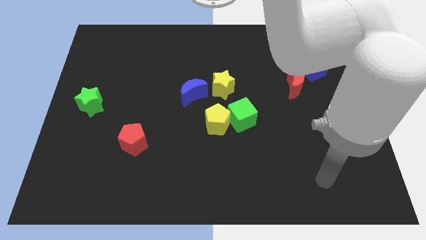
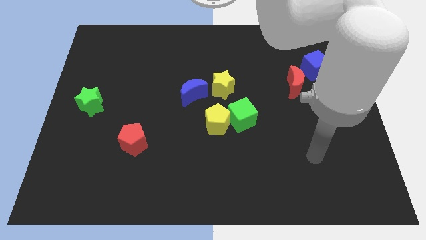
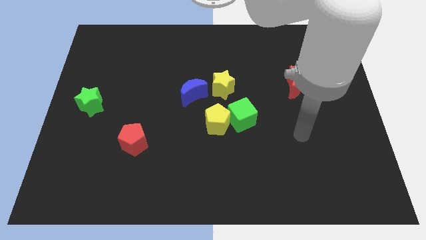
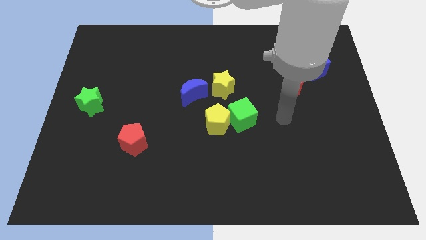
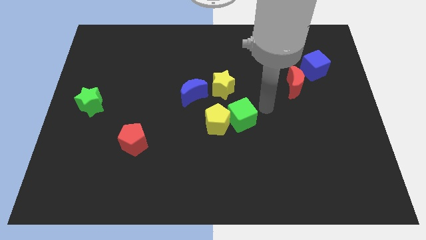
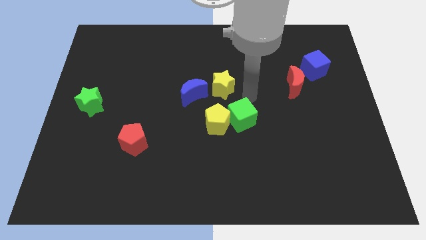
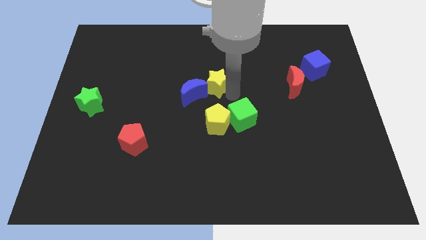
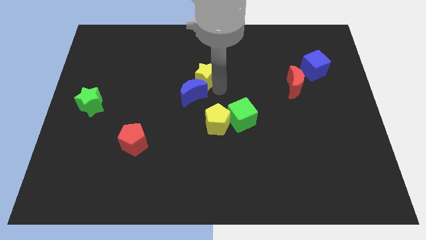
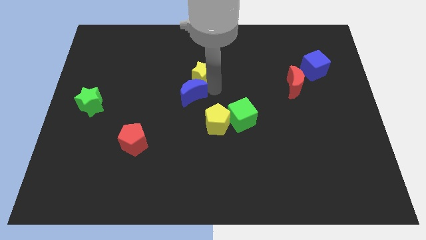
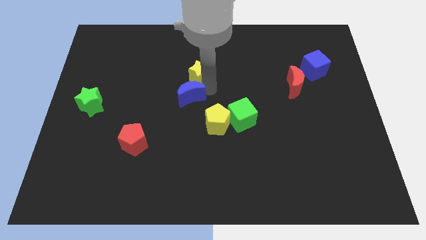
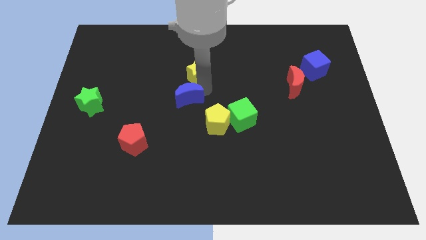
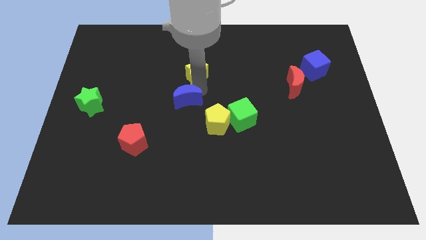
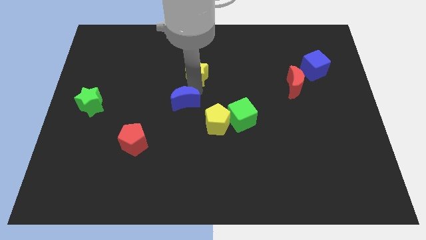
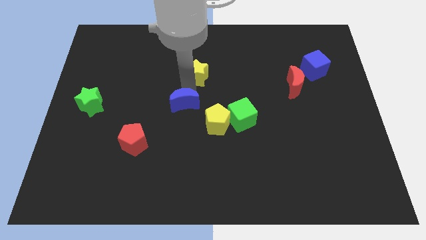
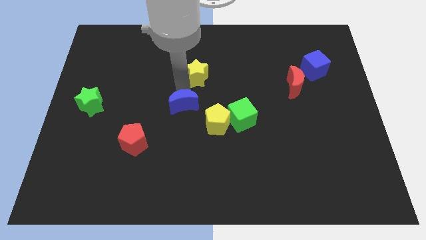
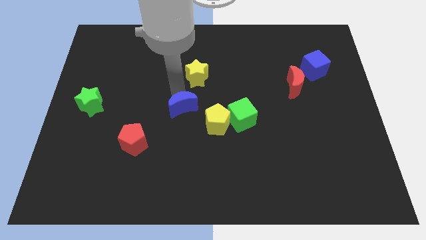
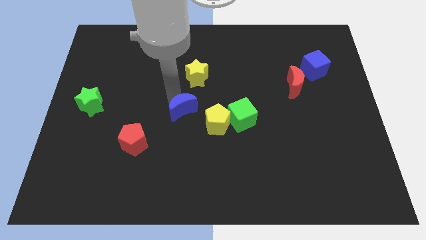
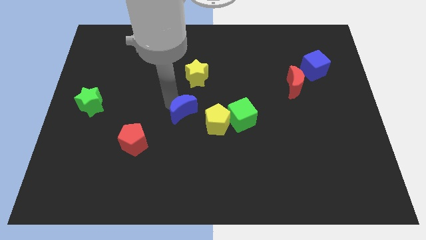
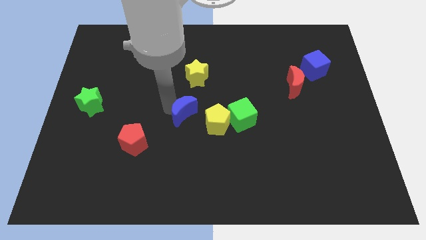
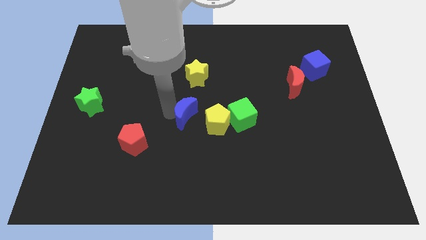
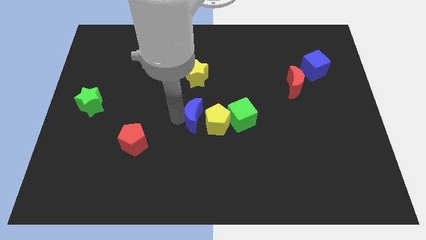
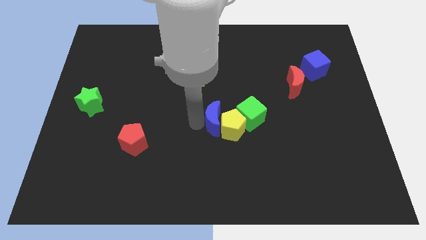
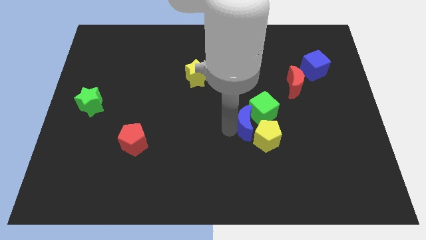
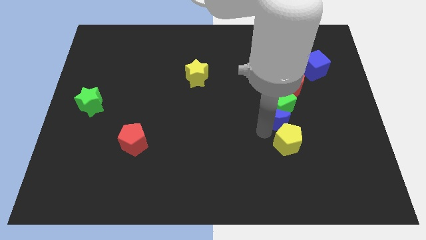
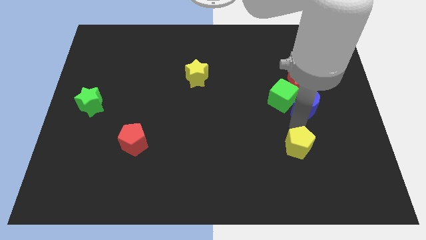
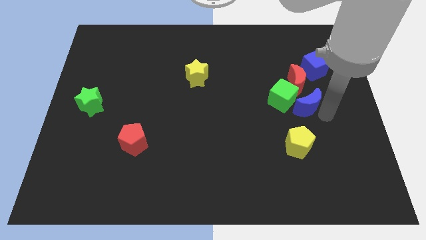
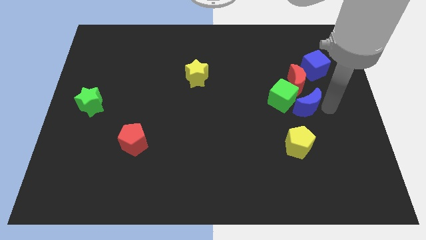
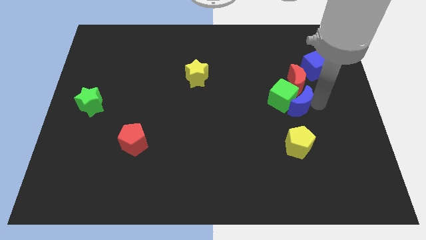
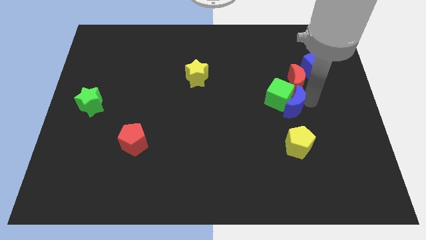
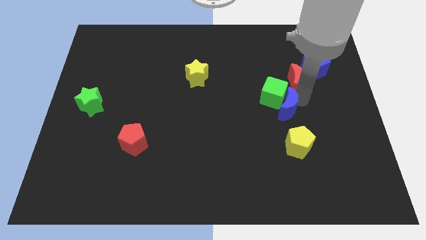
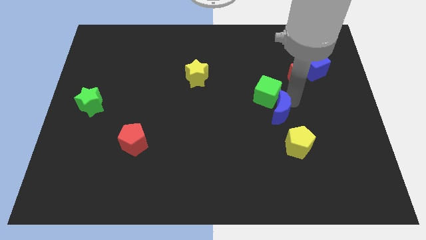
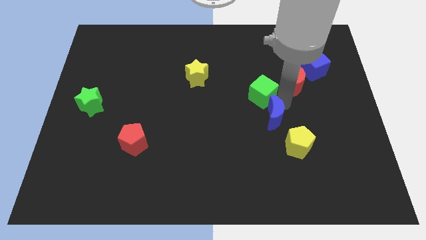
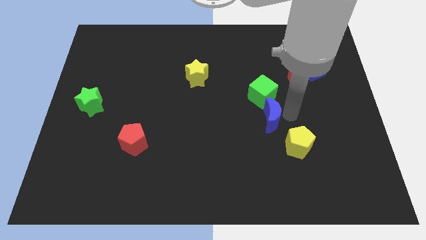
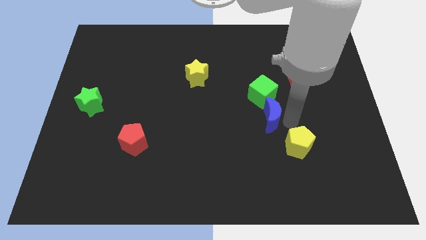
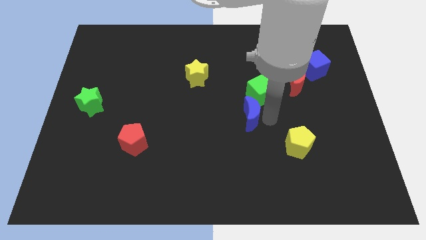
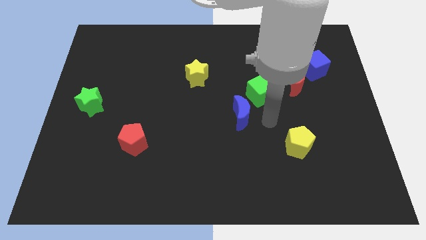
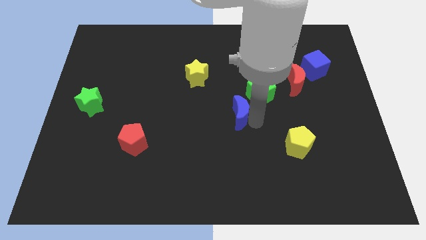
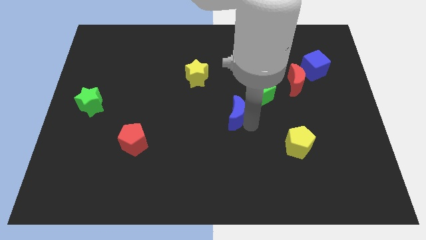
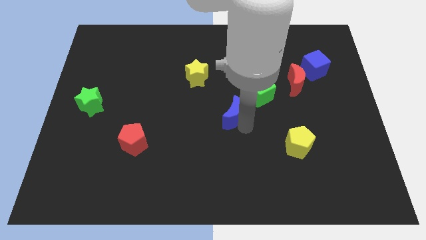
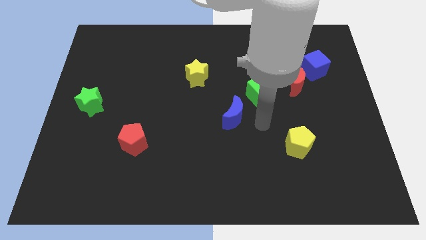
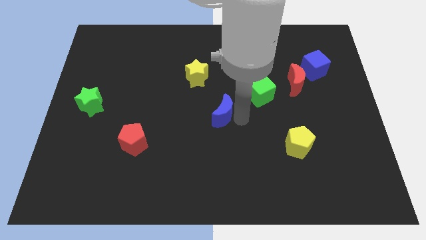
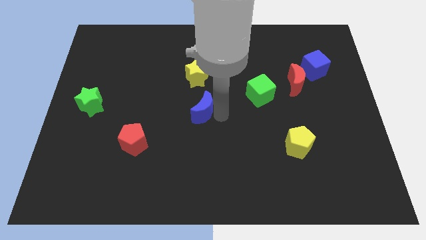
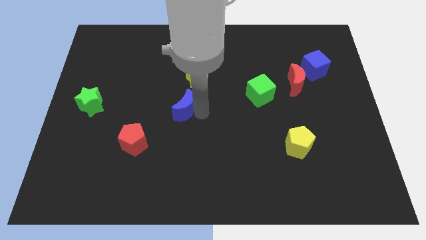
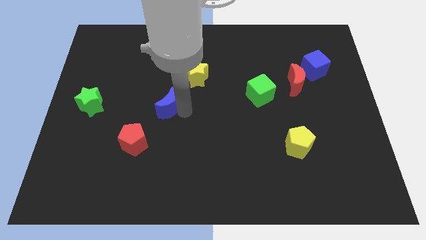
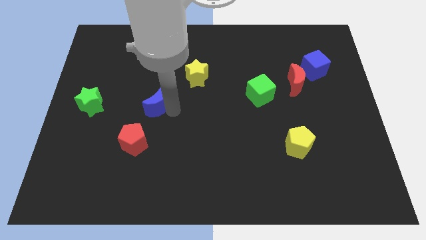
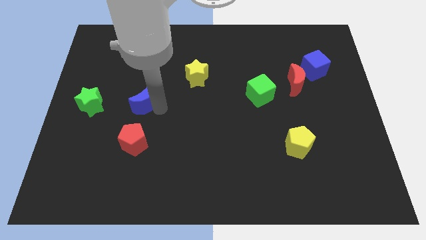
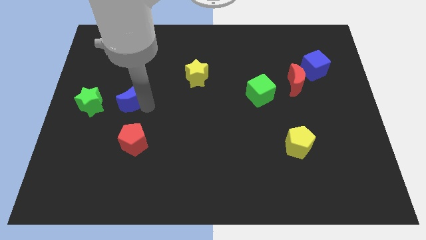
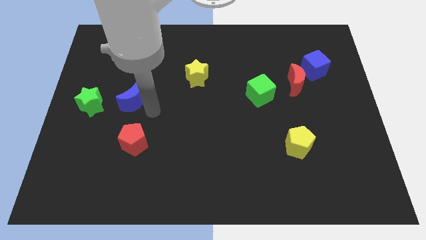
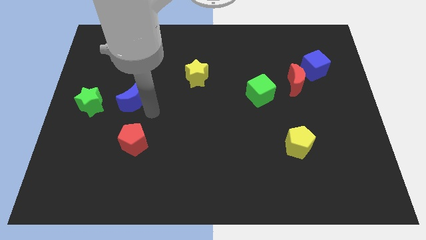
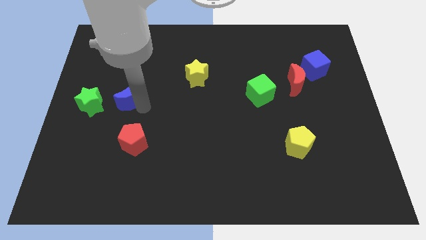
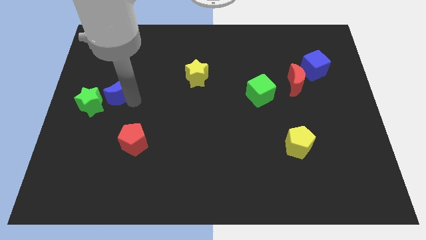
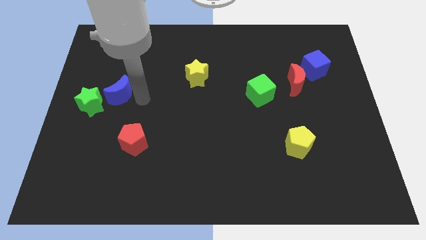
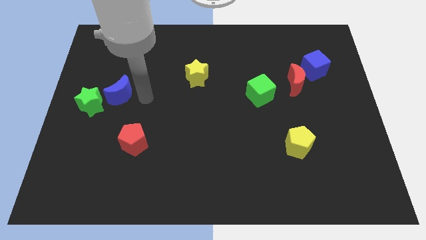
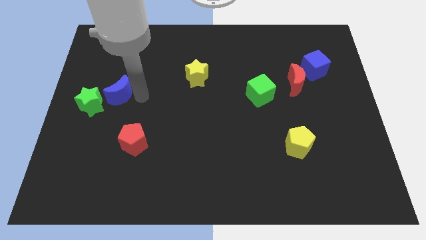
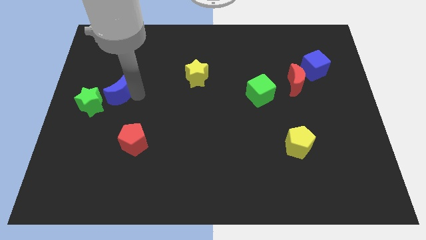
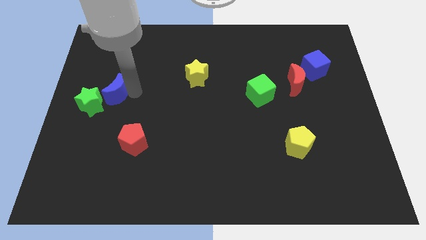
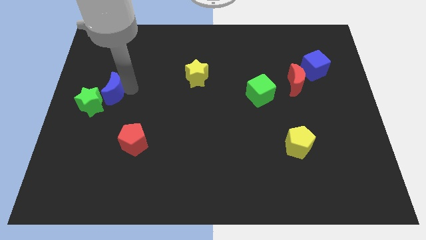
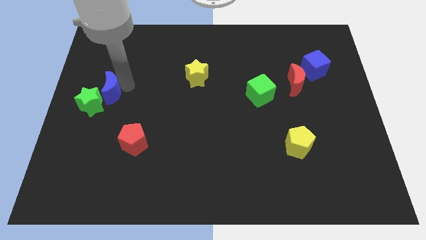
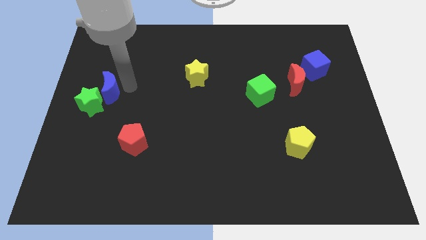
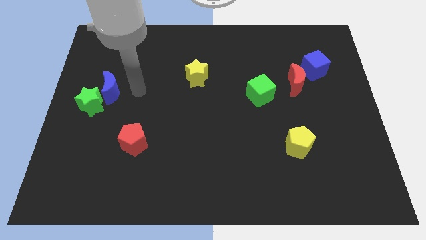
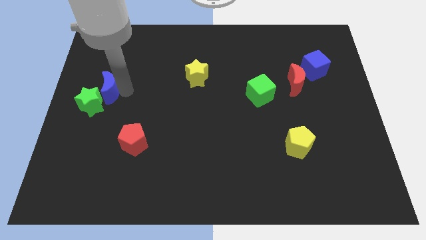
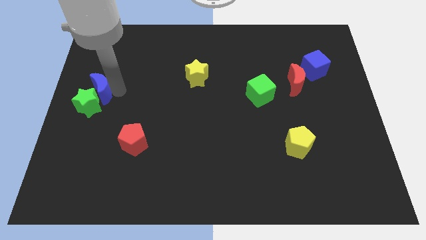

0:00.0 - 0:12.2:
slide the blue moon to the center left

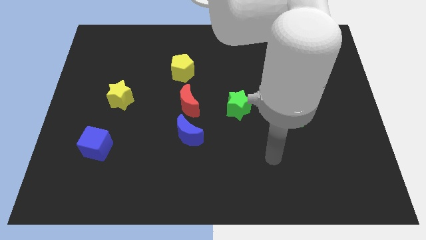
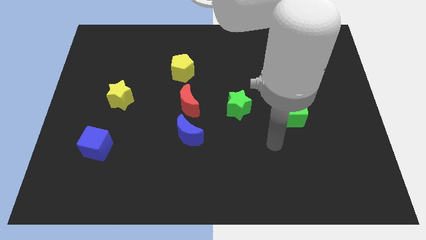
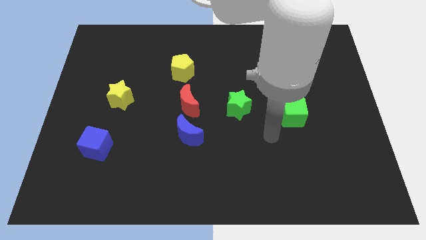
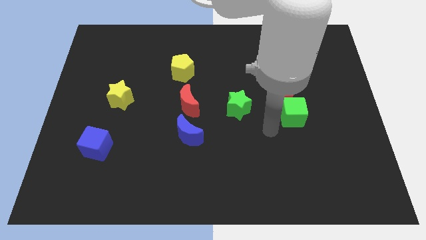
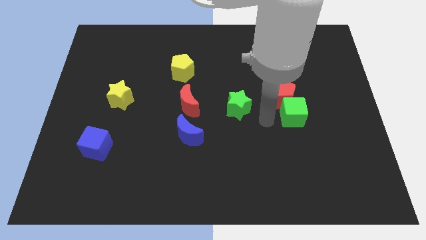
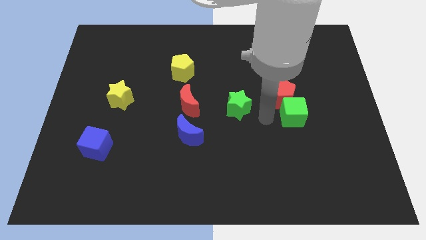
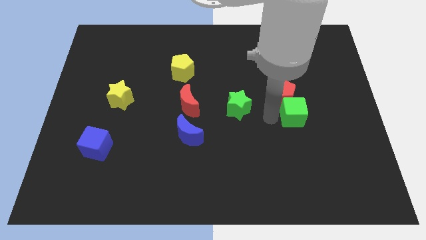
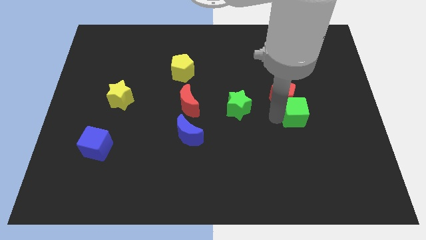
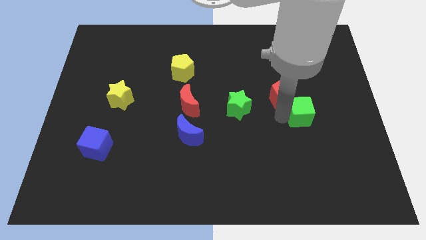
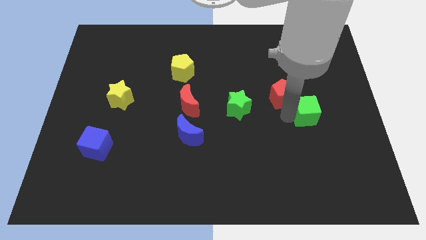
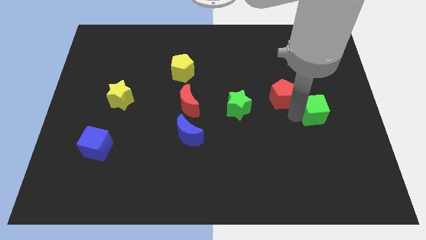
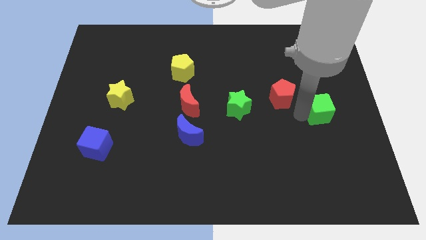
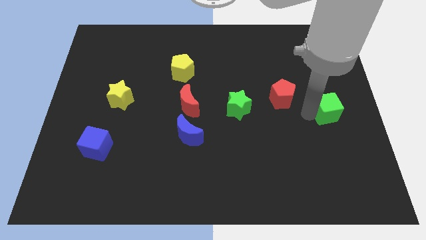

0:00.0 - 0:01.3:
push the green cube to the right side of the board
